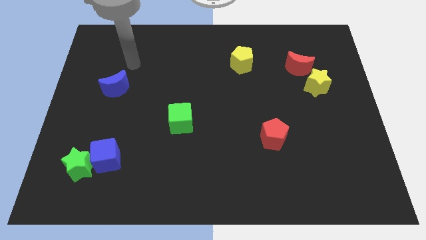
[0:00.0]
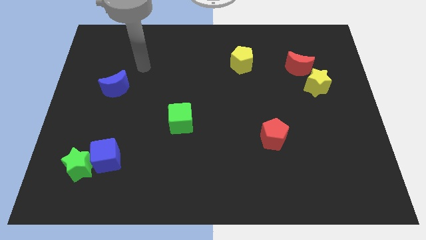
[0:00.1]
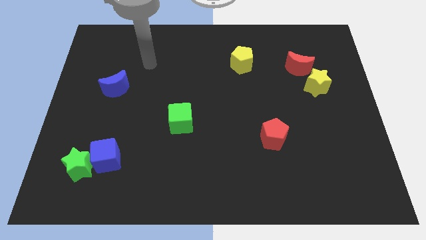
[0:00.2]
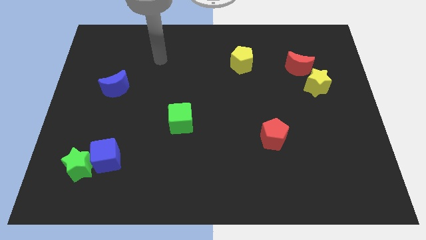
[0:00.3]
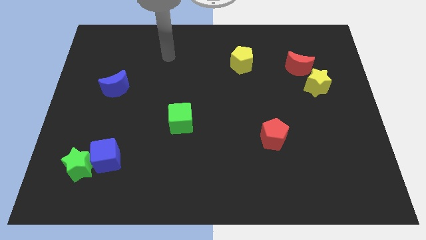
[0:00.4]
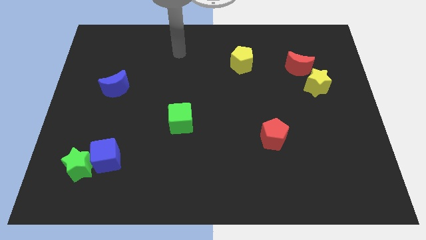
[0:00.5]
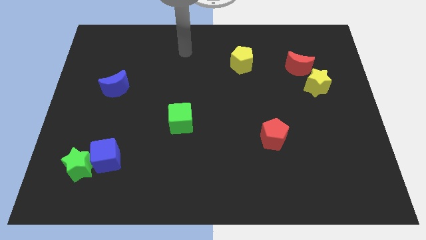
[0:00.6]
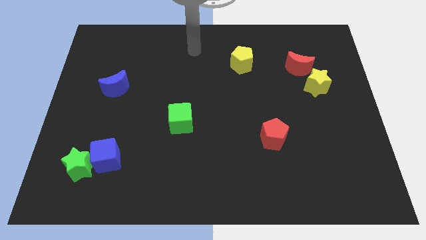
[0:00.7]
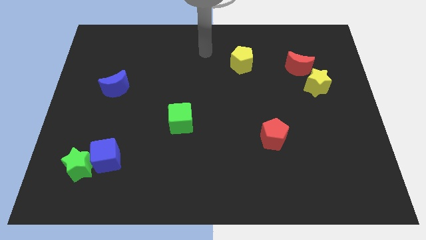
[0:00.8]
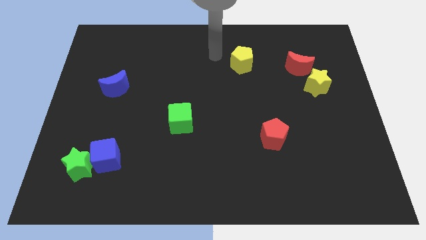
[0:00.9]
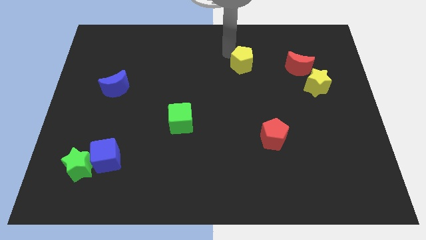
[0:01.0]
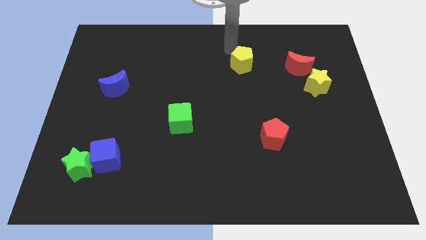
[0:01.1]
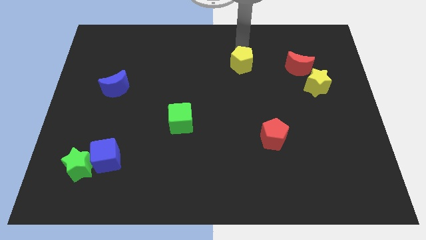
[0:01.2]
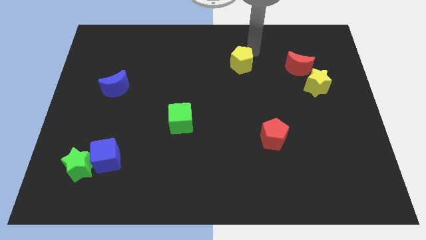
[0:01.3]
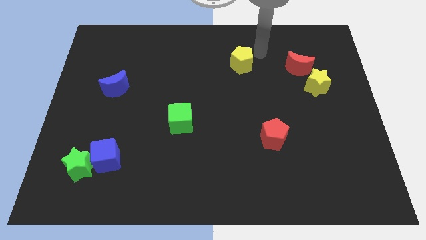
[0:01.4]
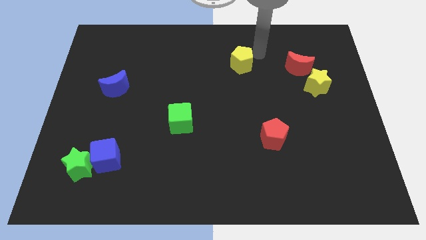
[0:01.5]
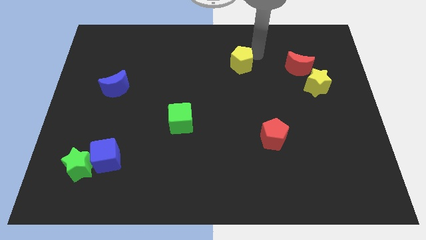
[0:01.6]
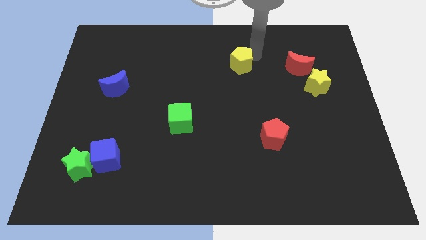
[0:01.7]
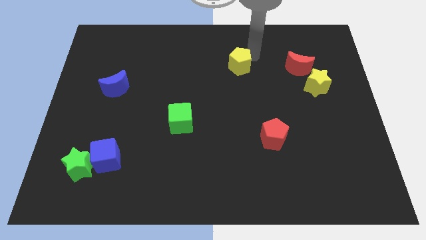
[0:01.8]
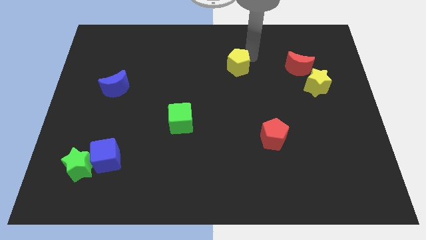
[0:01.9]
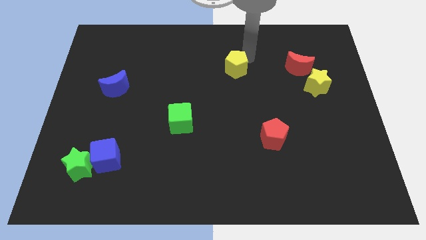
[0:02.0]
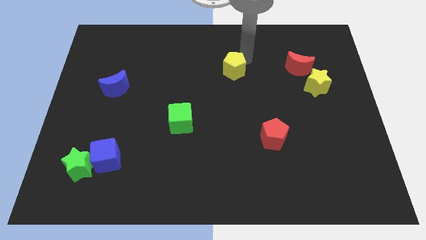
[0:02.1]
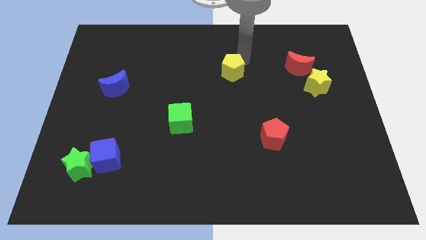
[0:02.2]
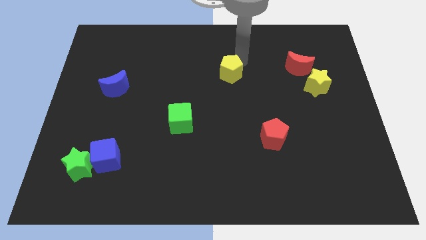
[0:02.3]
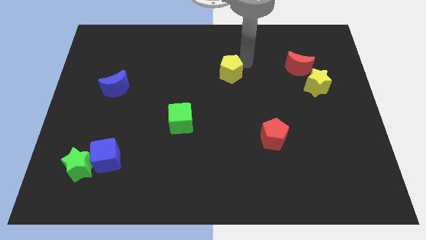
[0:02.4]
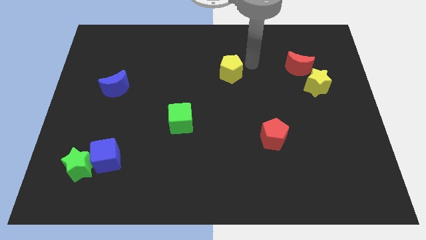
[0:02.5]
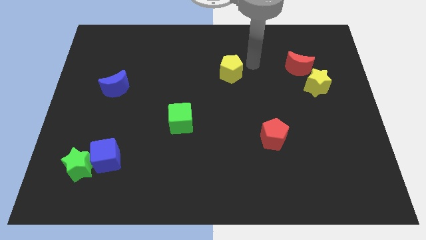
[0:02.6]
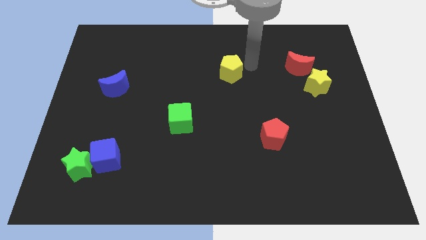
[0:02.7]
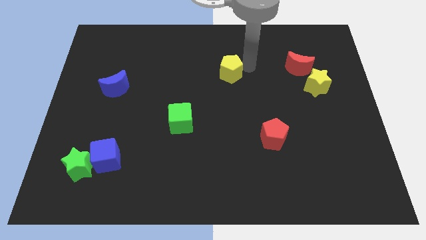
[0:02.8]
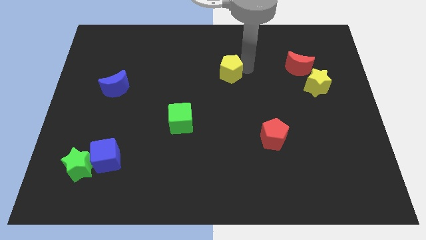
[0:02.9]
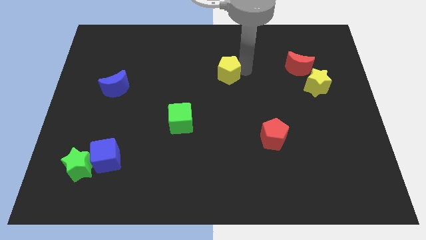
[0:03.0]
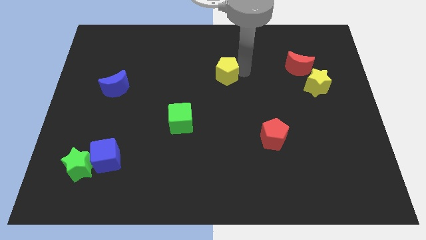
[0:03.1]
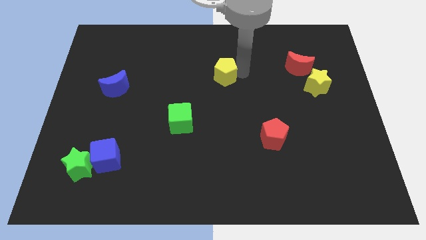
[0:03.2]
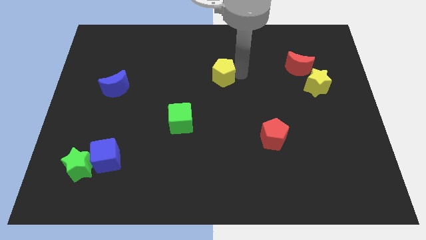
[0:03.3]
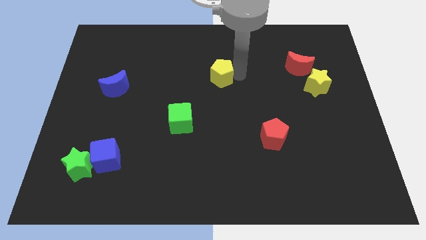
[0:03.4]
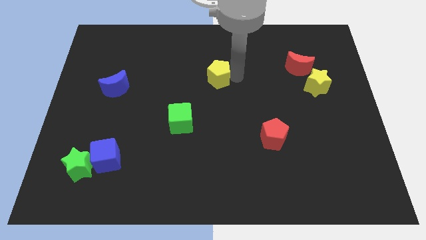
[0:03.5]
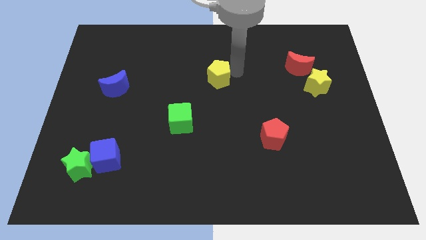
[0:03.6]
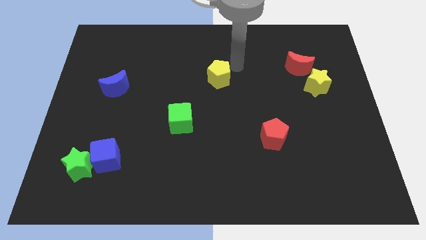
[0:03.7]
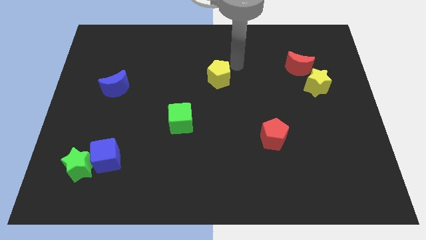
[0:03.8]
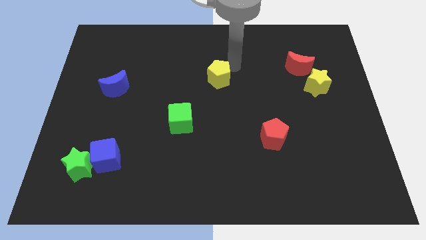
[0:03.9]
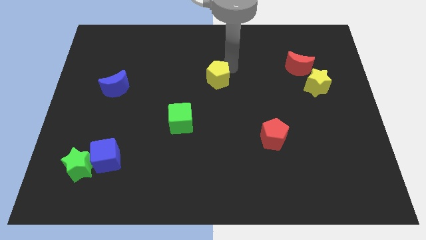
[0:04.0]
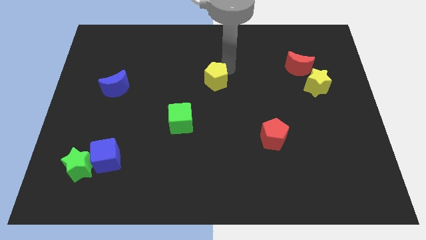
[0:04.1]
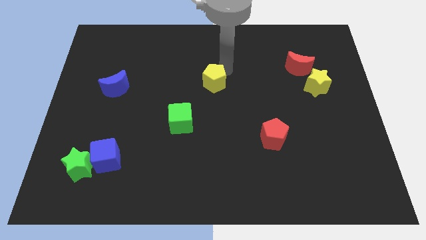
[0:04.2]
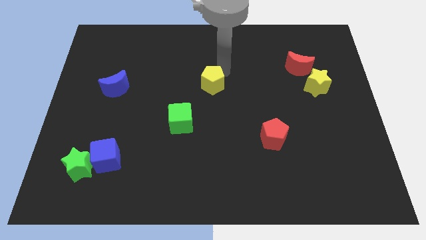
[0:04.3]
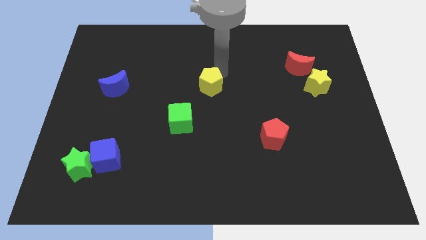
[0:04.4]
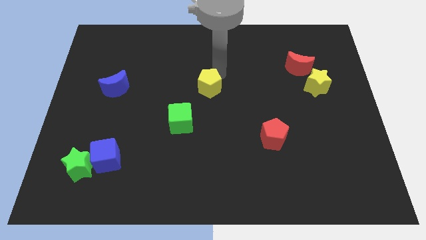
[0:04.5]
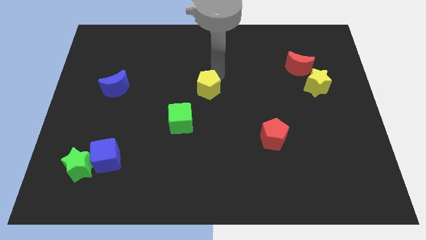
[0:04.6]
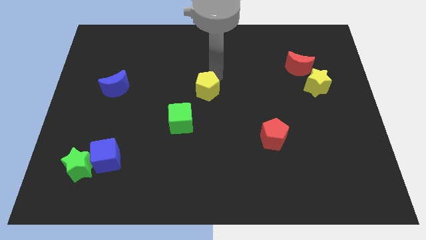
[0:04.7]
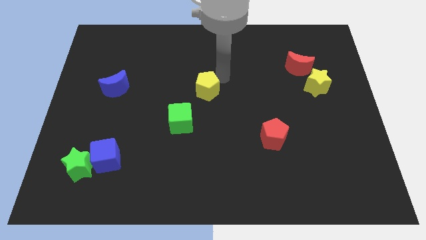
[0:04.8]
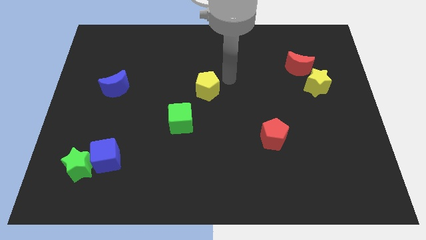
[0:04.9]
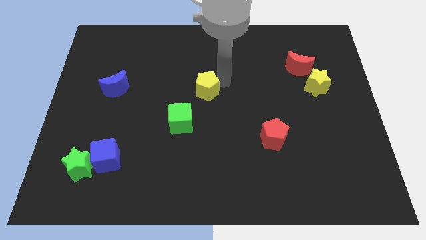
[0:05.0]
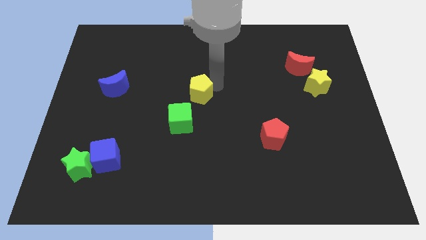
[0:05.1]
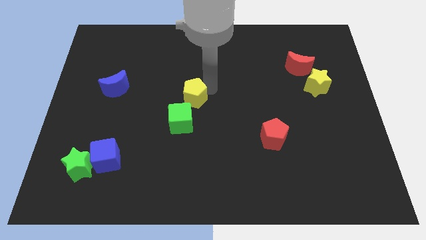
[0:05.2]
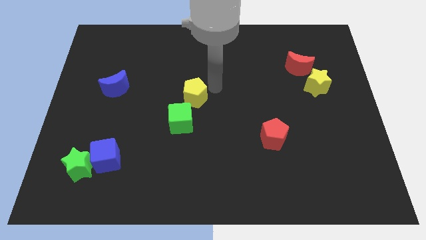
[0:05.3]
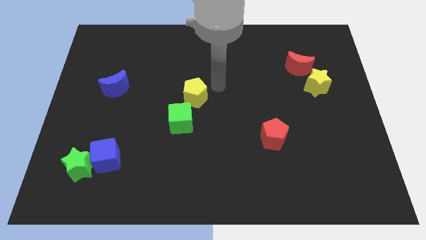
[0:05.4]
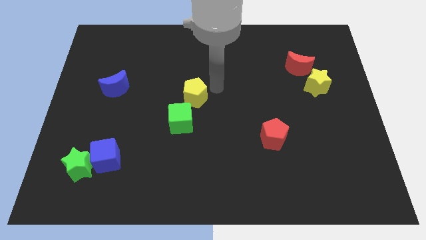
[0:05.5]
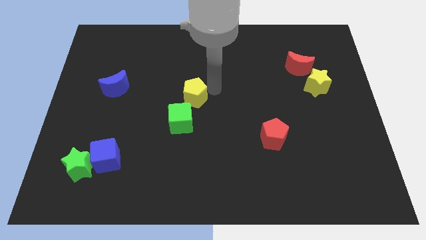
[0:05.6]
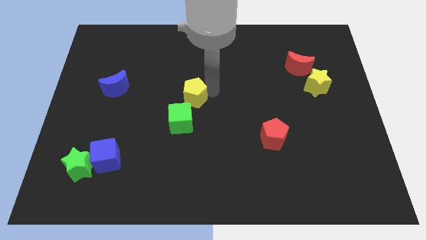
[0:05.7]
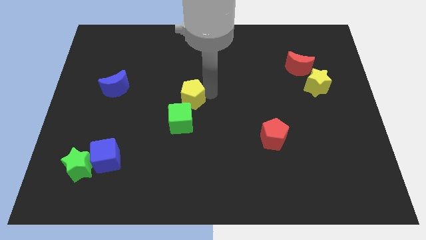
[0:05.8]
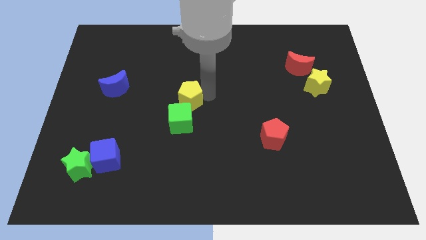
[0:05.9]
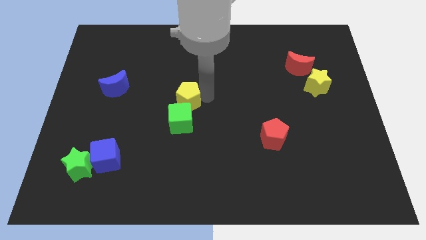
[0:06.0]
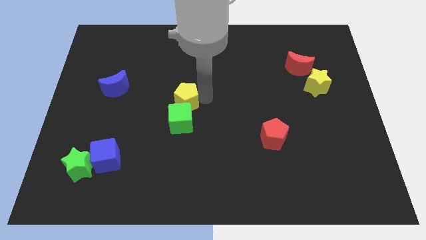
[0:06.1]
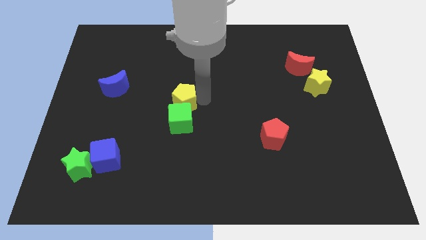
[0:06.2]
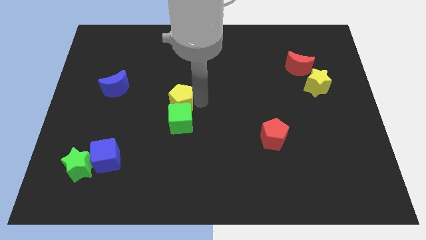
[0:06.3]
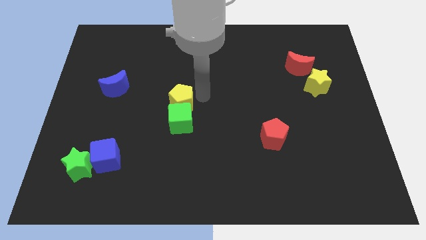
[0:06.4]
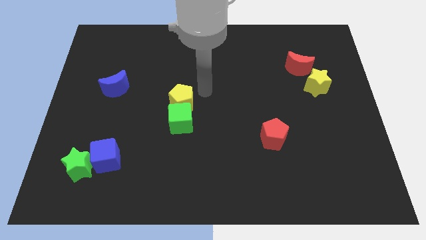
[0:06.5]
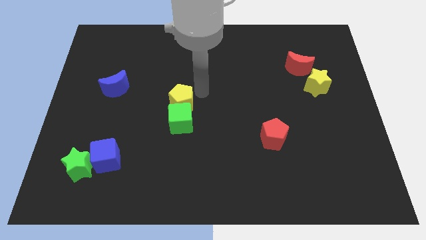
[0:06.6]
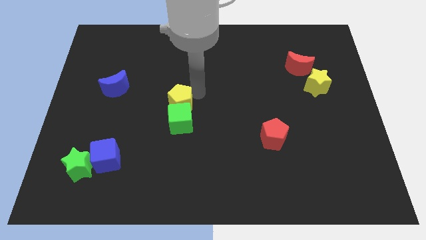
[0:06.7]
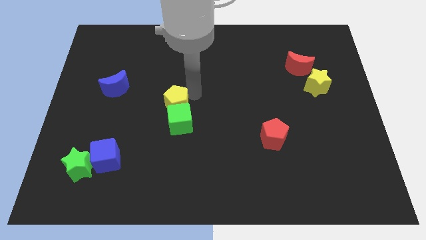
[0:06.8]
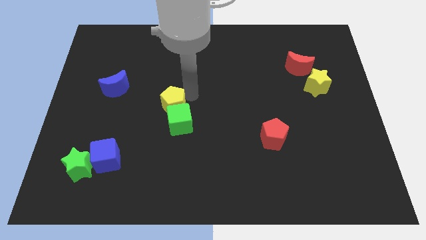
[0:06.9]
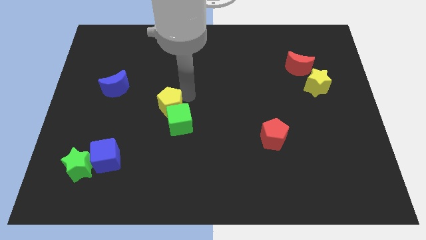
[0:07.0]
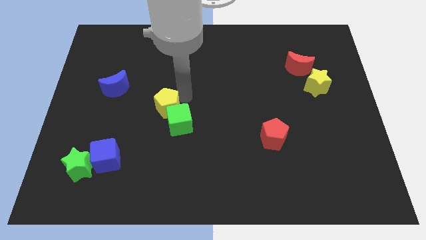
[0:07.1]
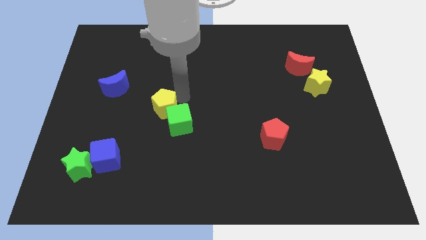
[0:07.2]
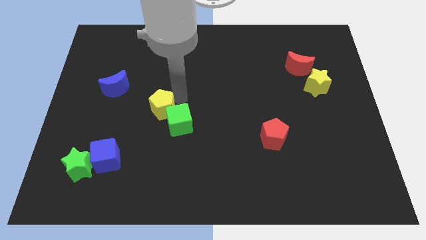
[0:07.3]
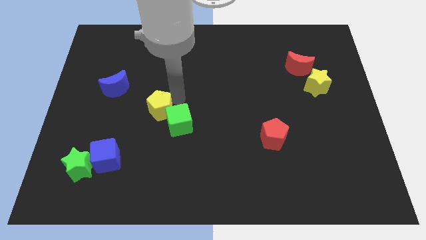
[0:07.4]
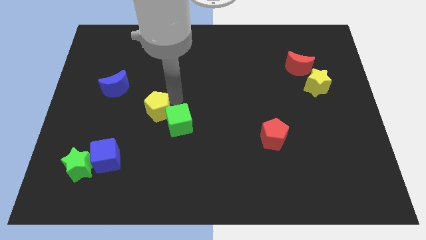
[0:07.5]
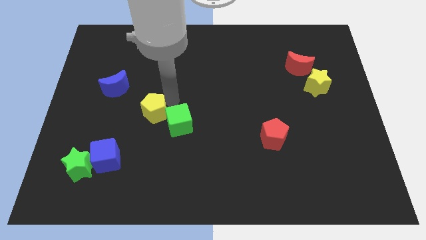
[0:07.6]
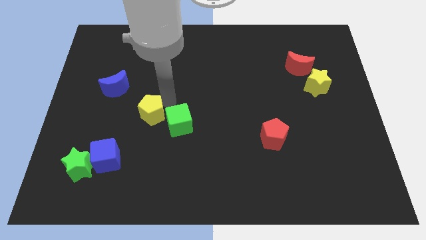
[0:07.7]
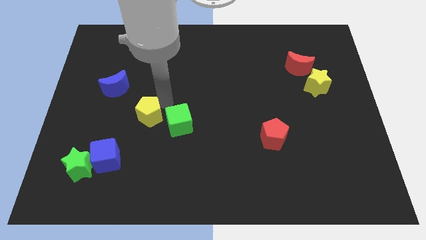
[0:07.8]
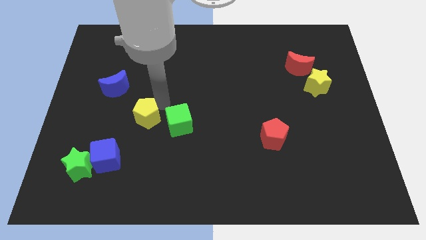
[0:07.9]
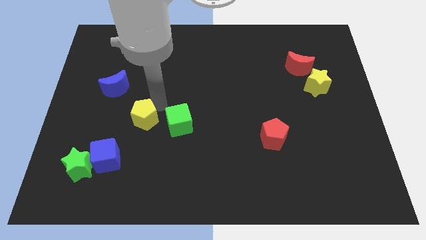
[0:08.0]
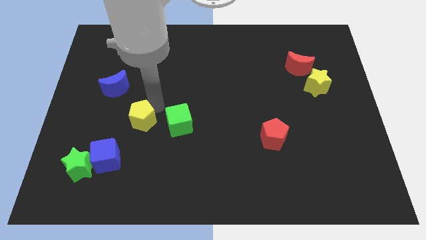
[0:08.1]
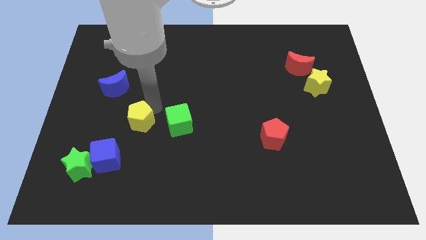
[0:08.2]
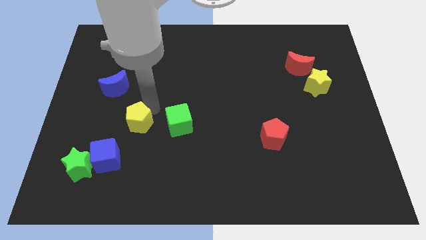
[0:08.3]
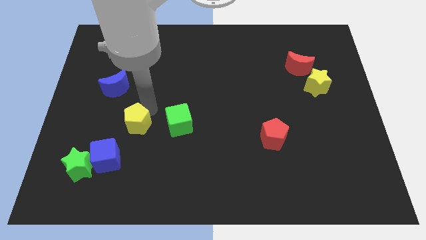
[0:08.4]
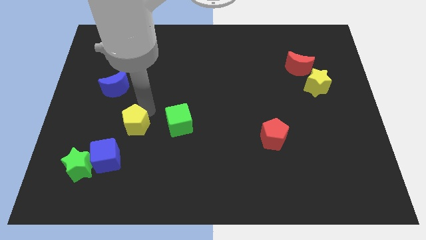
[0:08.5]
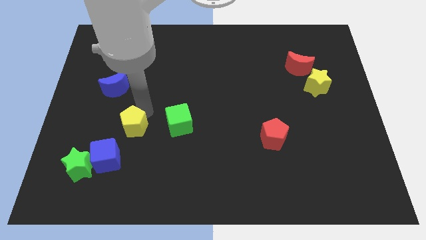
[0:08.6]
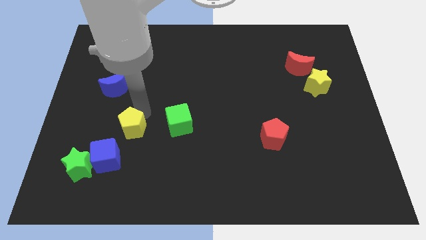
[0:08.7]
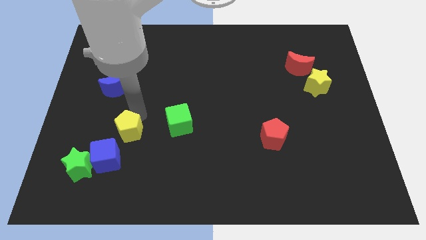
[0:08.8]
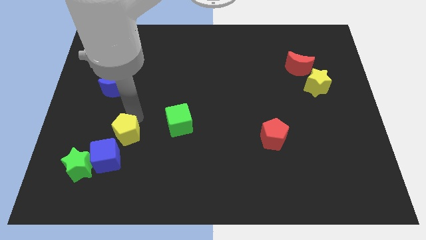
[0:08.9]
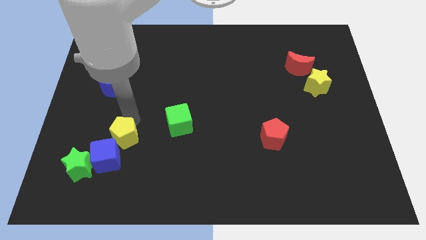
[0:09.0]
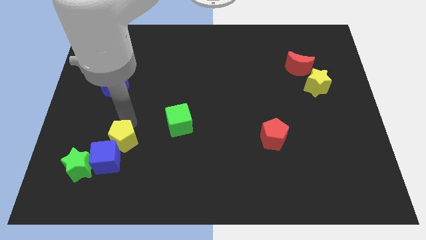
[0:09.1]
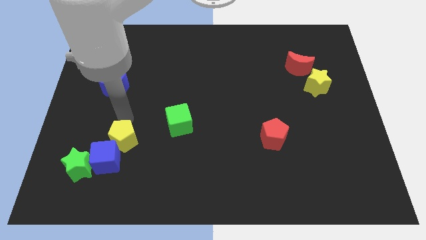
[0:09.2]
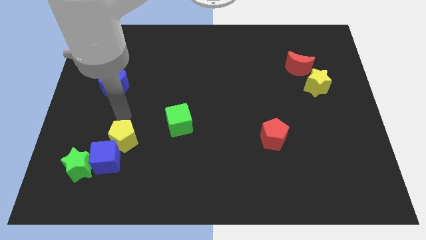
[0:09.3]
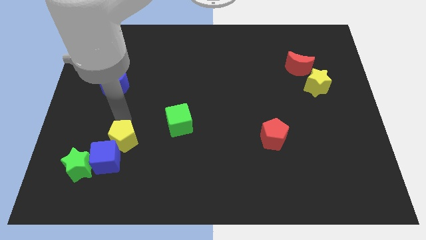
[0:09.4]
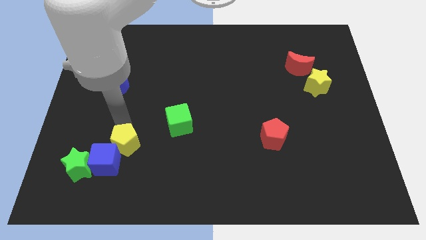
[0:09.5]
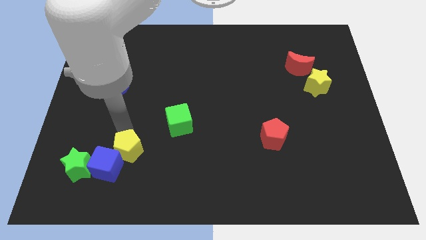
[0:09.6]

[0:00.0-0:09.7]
put the yellow pentagon right of the green star
